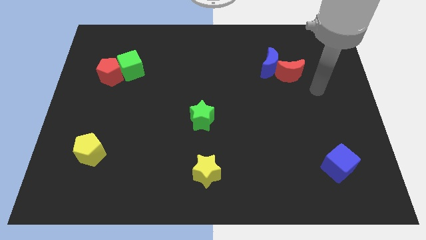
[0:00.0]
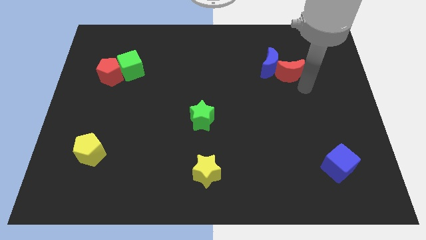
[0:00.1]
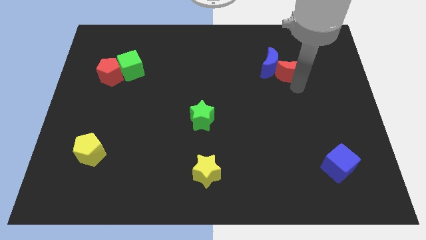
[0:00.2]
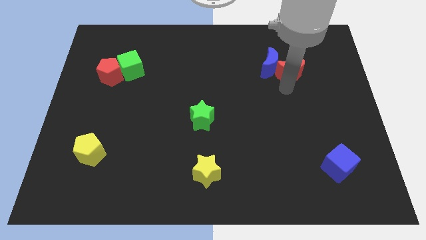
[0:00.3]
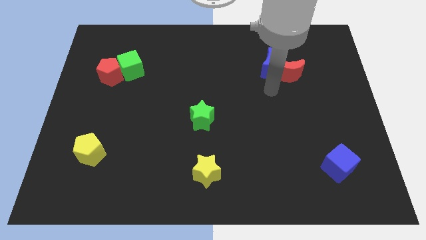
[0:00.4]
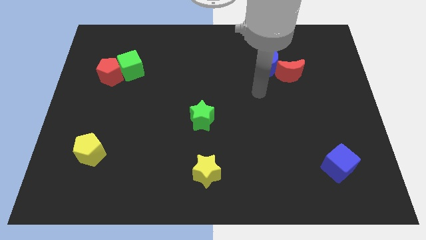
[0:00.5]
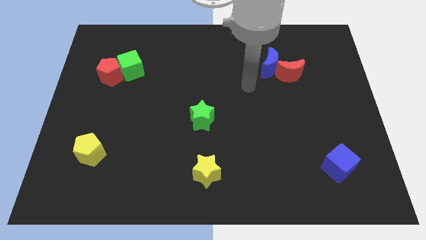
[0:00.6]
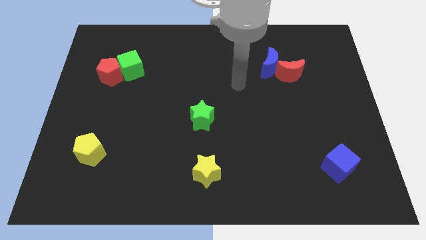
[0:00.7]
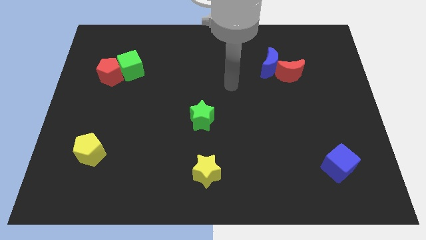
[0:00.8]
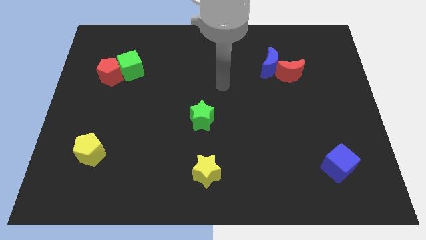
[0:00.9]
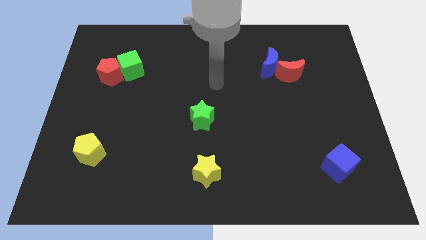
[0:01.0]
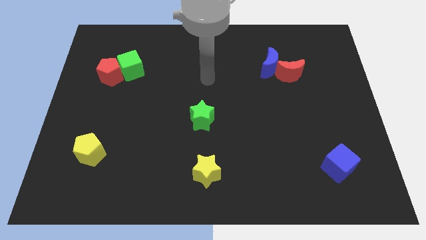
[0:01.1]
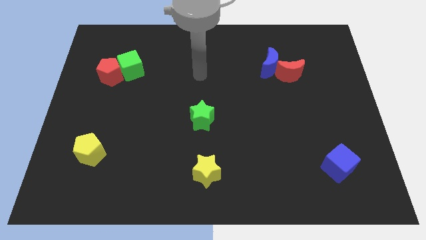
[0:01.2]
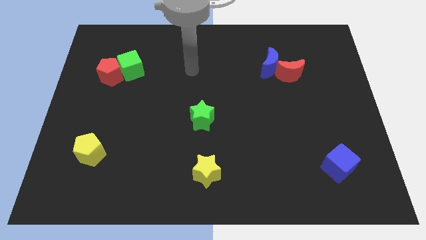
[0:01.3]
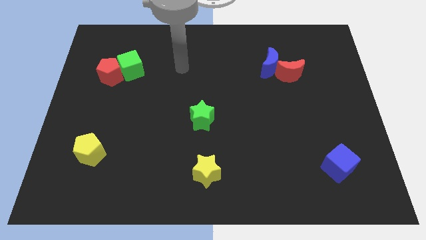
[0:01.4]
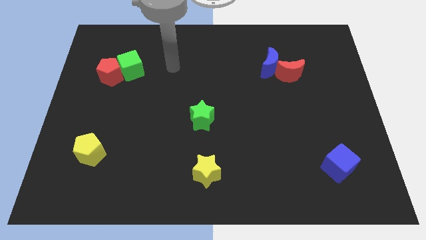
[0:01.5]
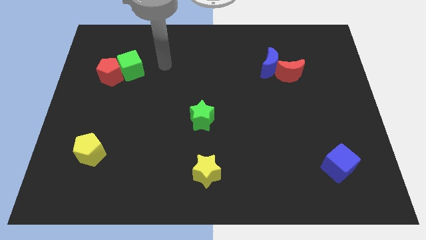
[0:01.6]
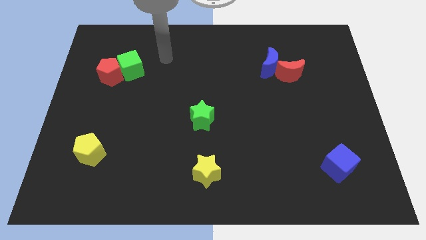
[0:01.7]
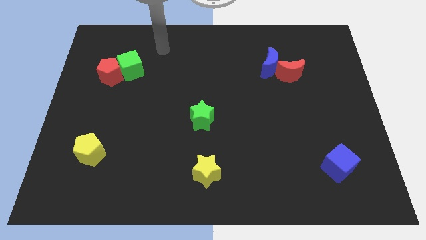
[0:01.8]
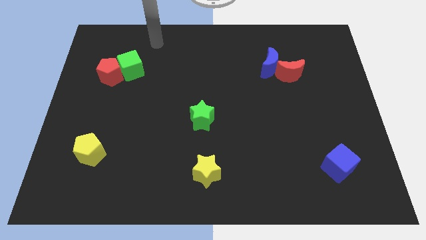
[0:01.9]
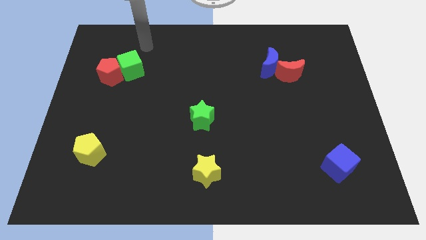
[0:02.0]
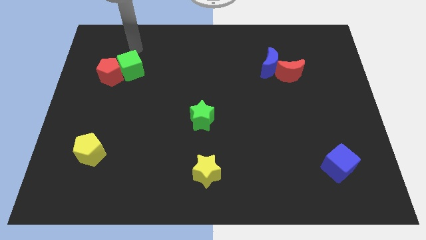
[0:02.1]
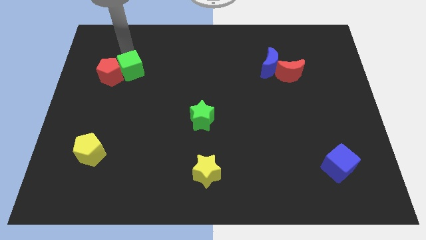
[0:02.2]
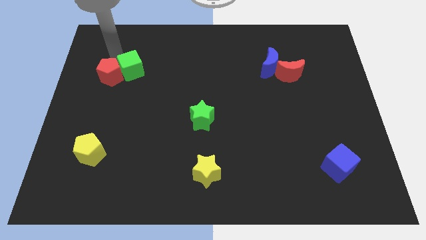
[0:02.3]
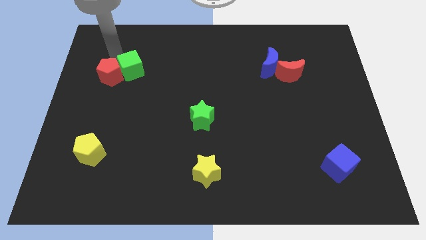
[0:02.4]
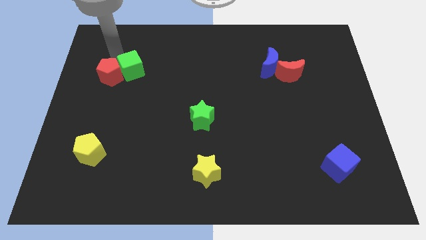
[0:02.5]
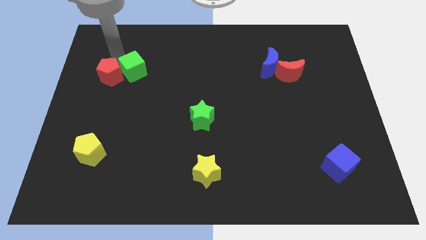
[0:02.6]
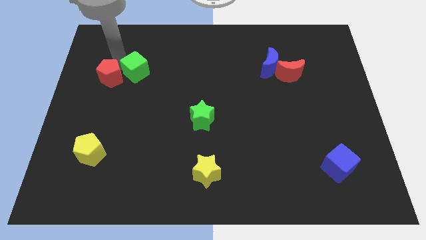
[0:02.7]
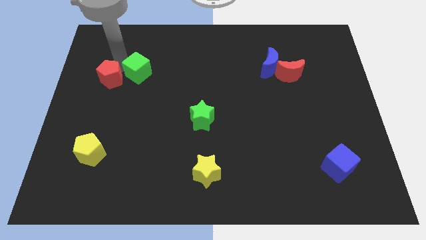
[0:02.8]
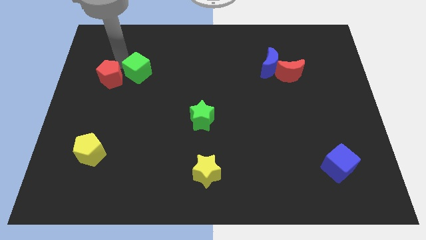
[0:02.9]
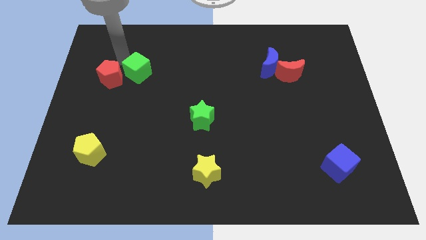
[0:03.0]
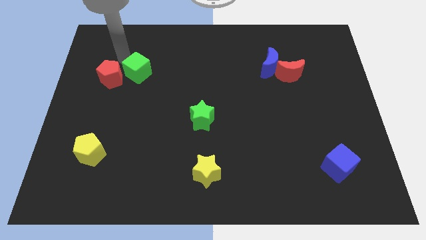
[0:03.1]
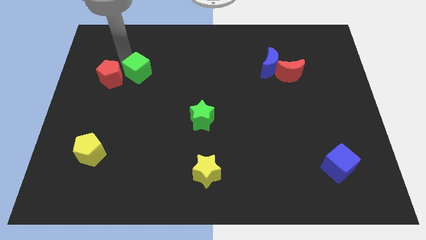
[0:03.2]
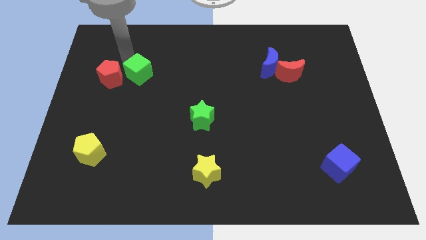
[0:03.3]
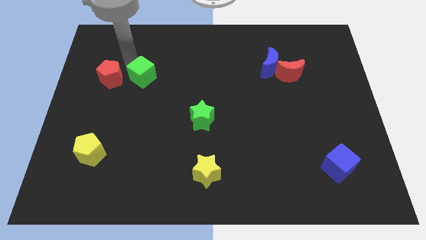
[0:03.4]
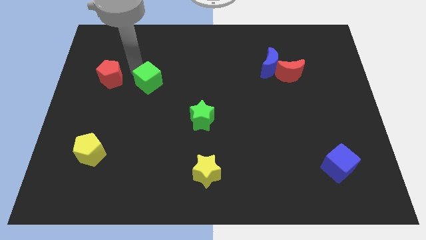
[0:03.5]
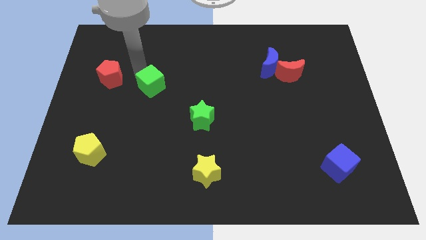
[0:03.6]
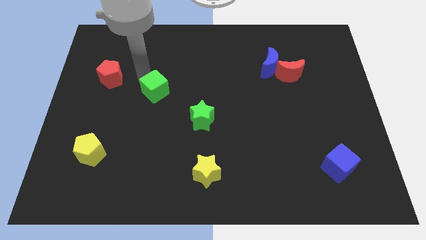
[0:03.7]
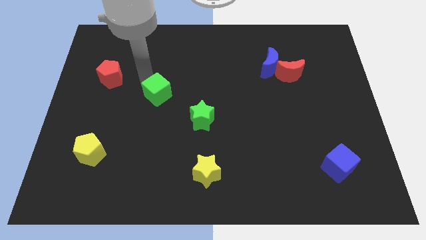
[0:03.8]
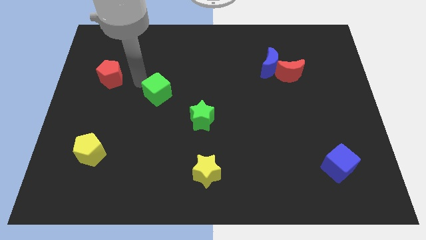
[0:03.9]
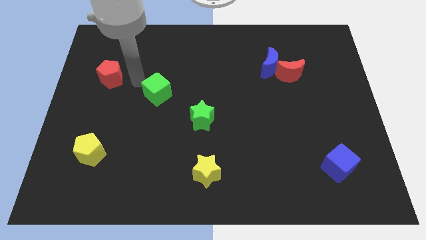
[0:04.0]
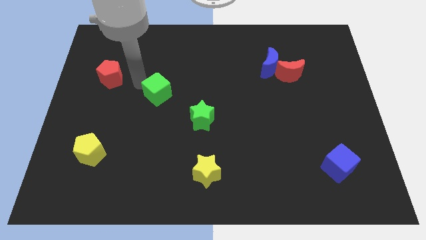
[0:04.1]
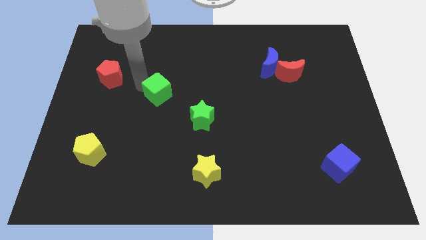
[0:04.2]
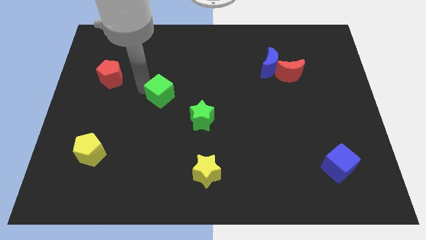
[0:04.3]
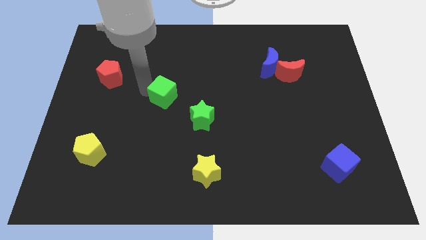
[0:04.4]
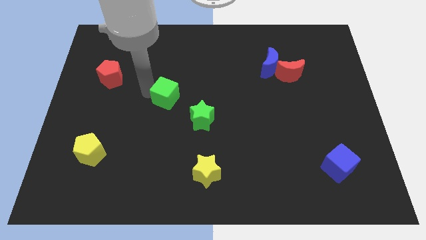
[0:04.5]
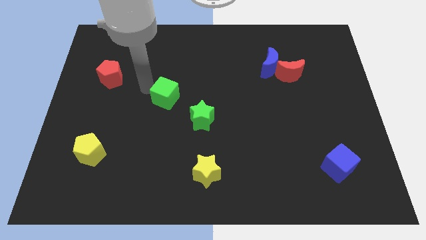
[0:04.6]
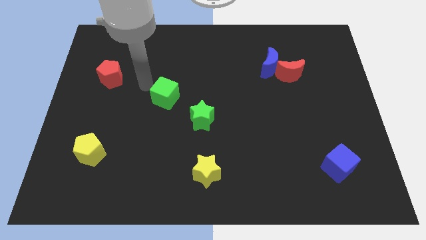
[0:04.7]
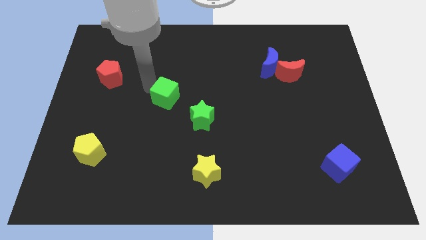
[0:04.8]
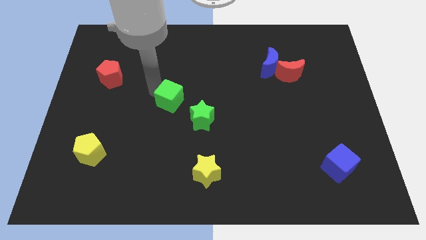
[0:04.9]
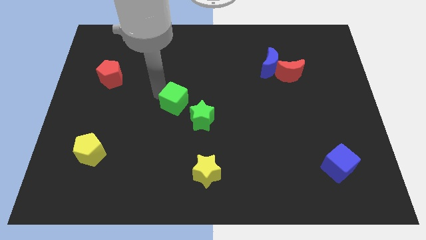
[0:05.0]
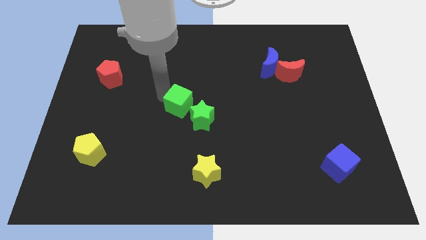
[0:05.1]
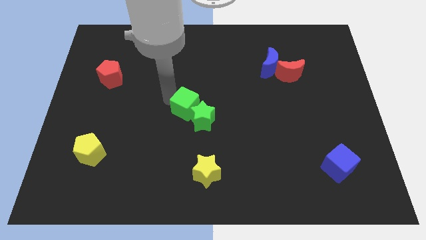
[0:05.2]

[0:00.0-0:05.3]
push the green cube to the green star

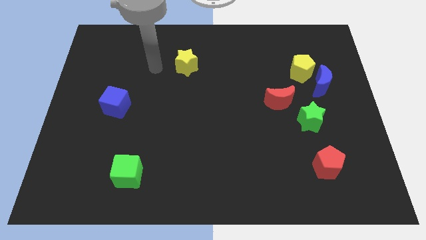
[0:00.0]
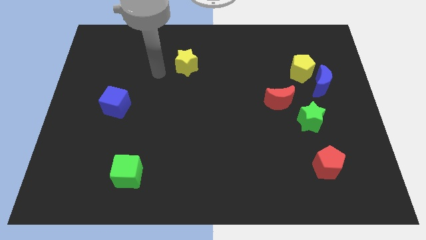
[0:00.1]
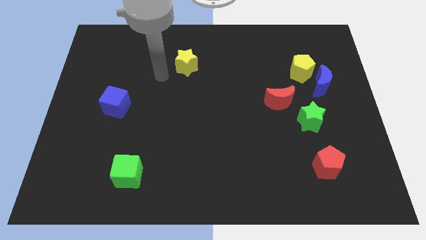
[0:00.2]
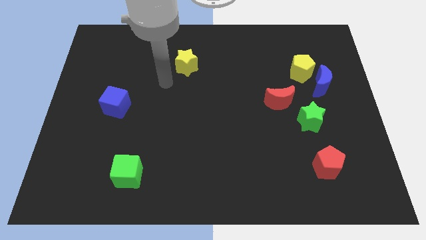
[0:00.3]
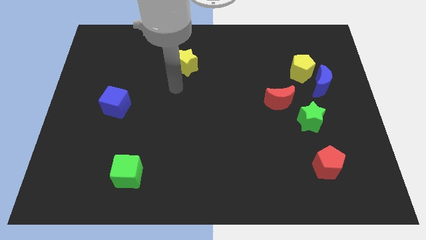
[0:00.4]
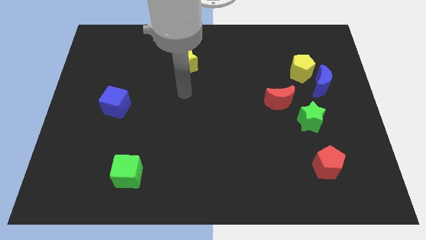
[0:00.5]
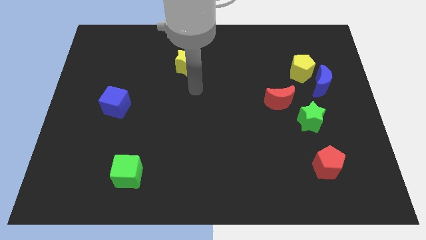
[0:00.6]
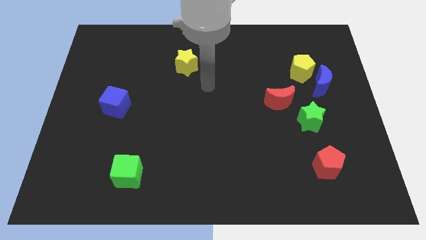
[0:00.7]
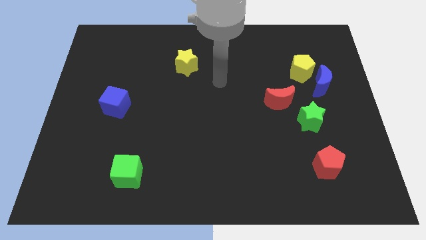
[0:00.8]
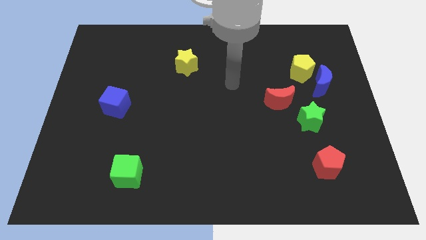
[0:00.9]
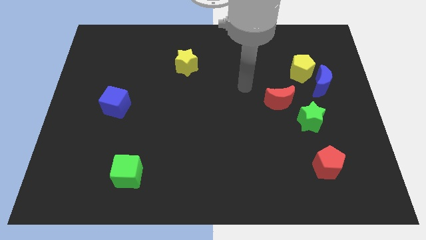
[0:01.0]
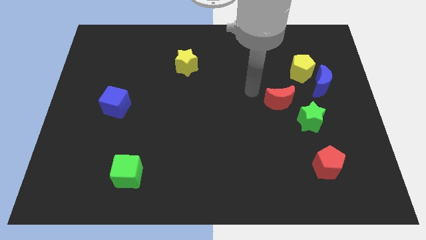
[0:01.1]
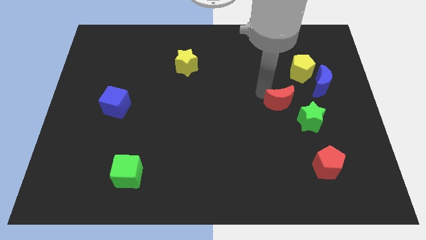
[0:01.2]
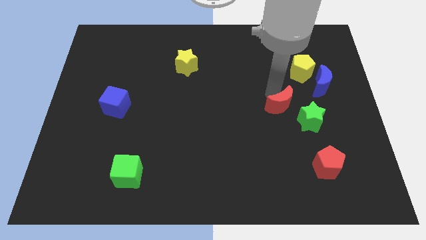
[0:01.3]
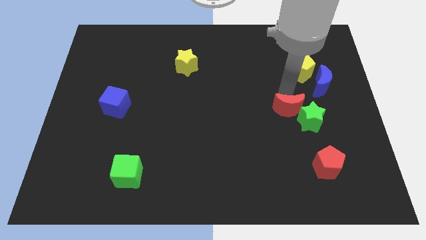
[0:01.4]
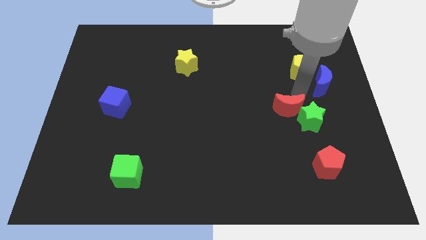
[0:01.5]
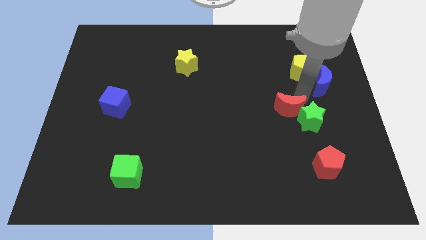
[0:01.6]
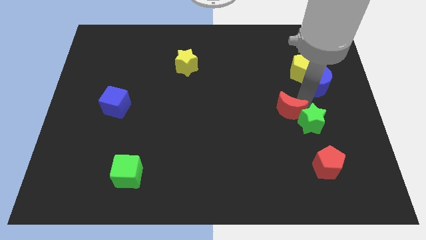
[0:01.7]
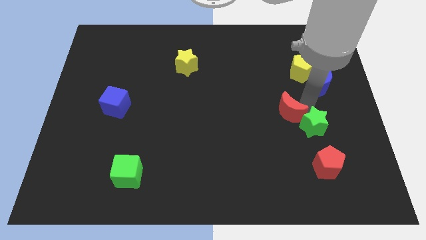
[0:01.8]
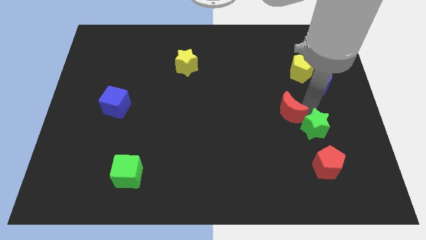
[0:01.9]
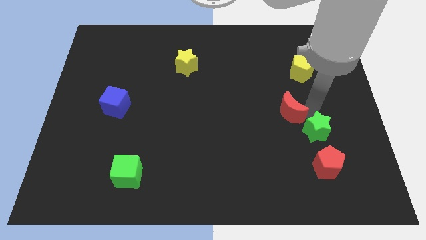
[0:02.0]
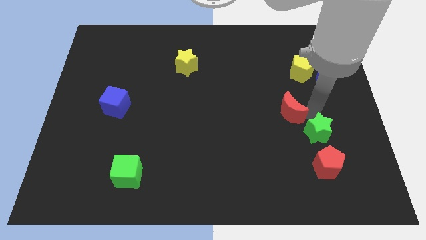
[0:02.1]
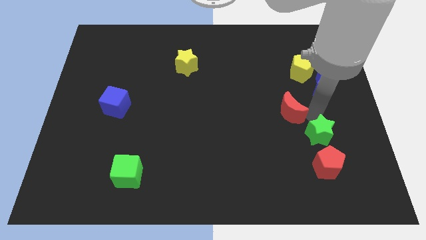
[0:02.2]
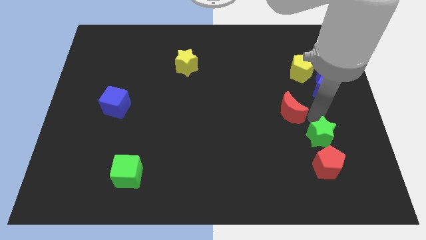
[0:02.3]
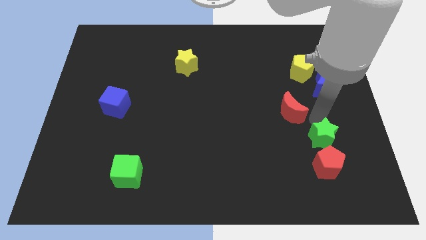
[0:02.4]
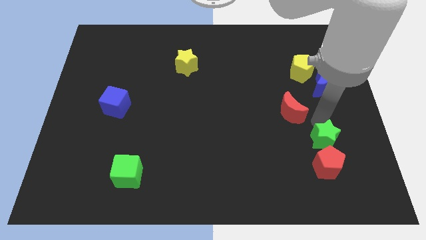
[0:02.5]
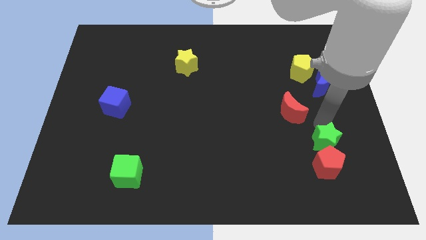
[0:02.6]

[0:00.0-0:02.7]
move the green star to the red pentagon
